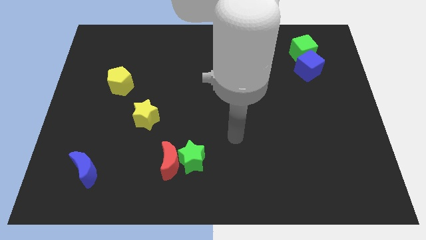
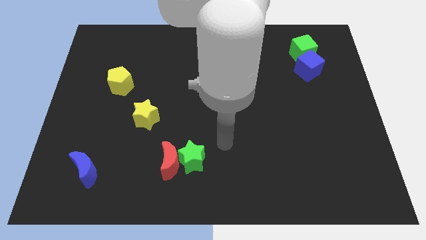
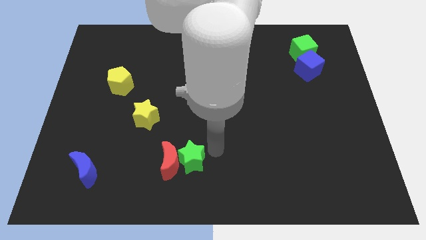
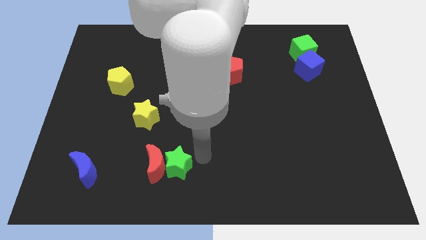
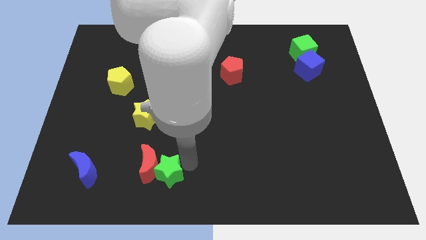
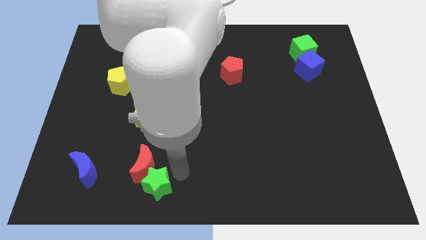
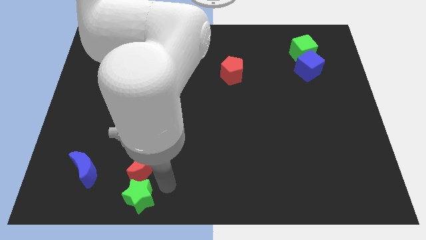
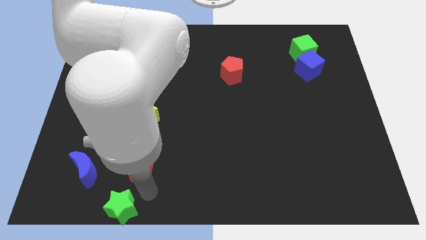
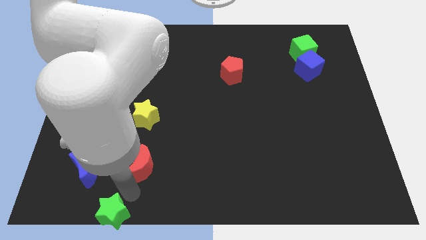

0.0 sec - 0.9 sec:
move the red moon away from the green star

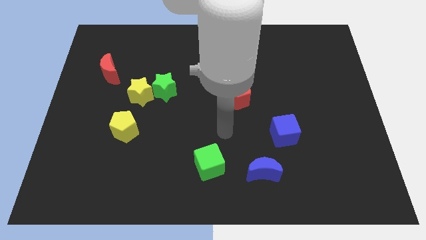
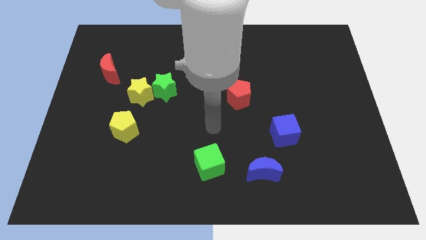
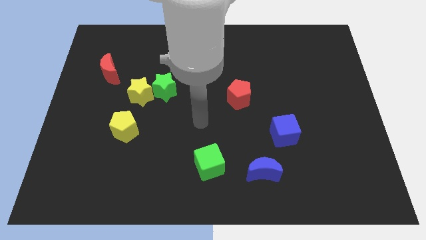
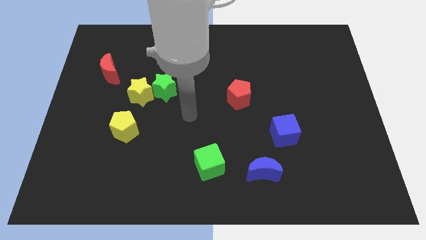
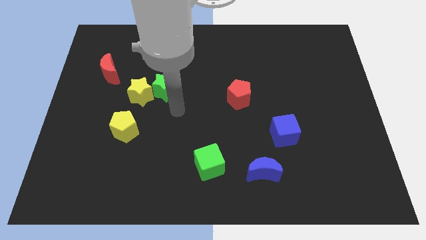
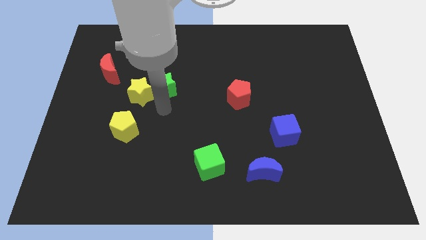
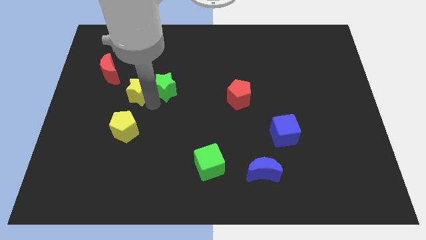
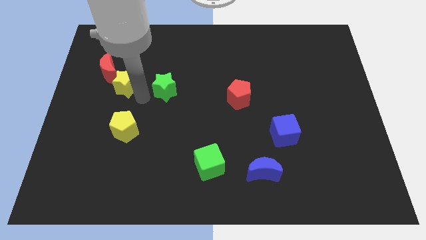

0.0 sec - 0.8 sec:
pull the green star apart from the yellow star

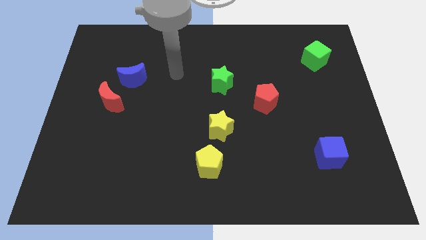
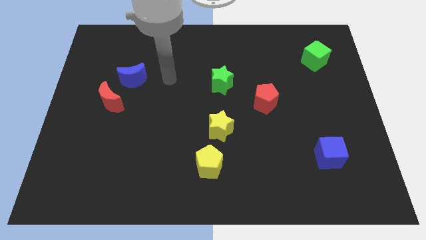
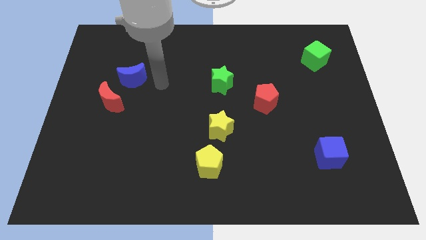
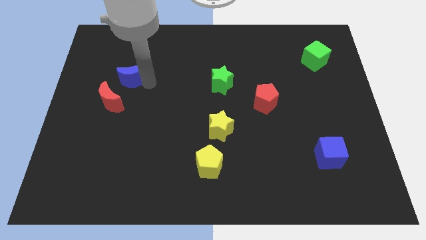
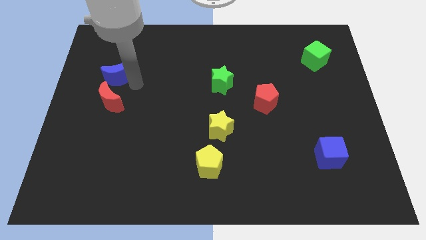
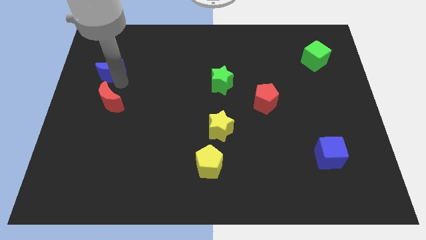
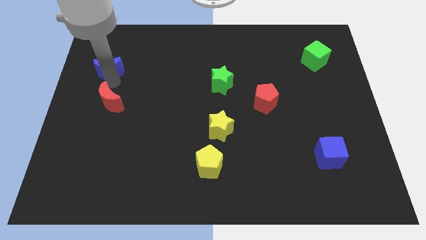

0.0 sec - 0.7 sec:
move the red moon away from the blue moon

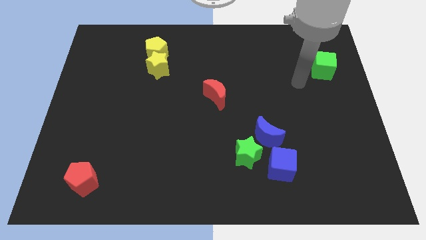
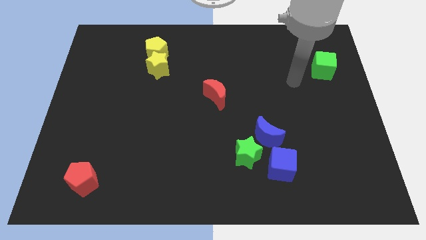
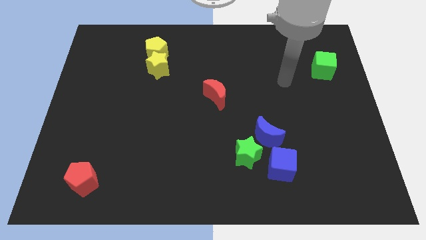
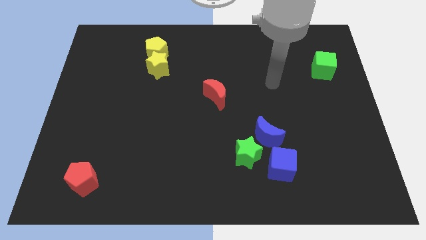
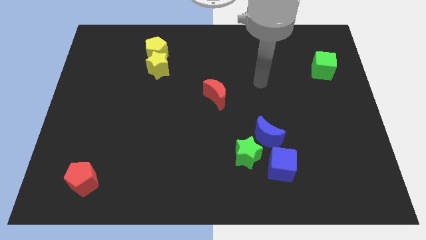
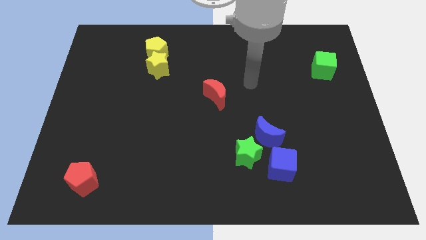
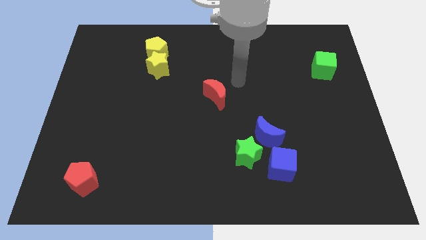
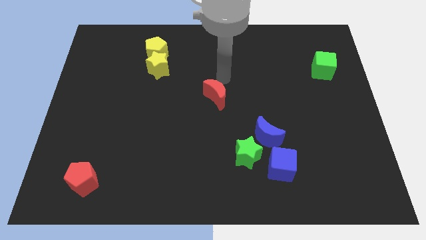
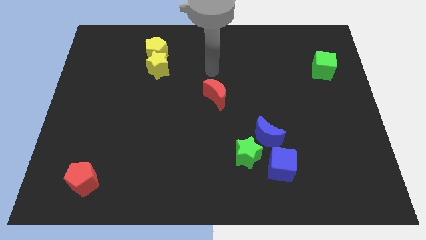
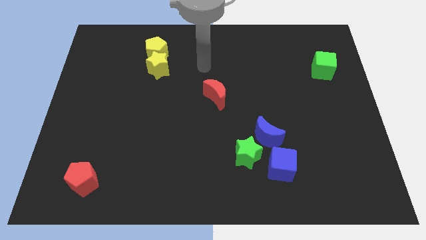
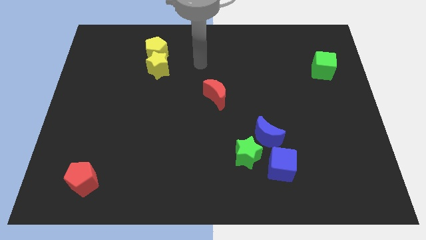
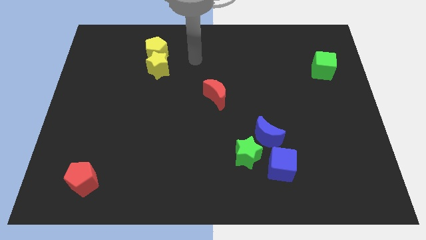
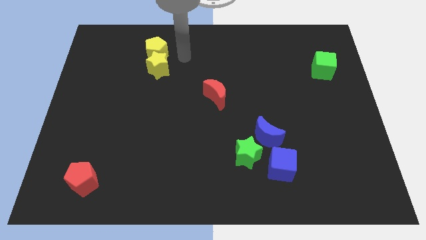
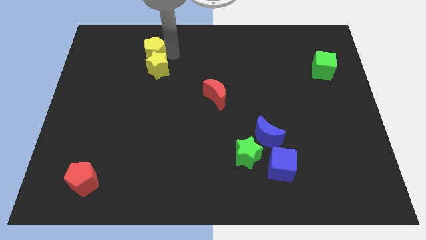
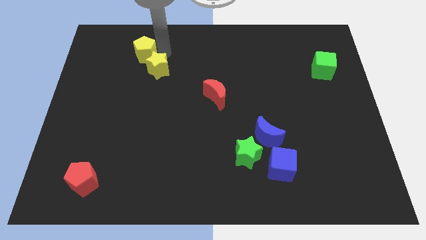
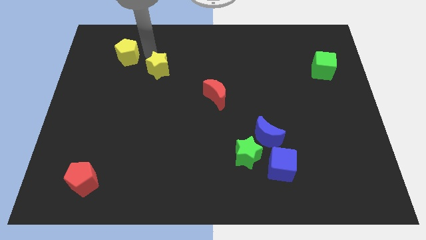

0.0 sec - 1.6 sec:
pull the yellow star apart from the yellow pentagon

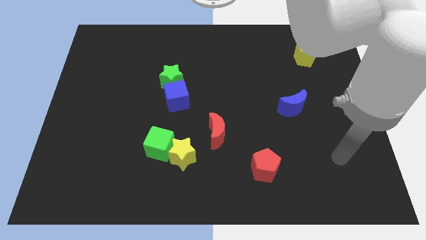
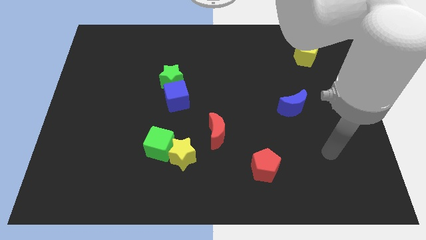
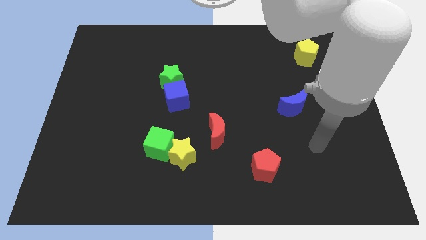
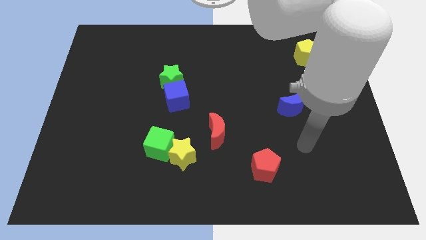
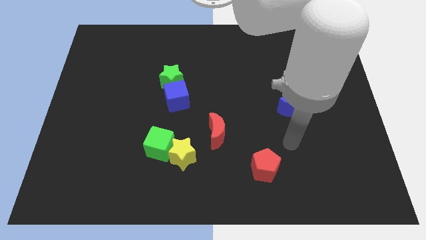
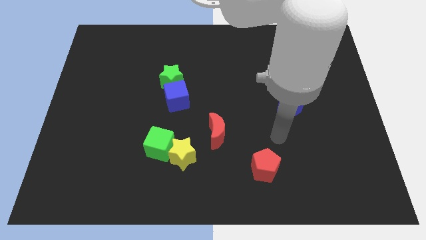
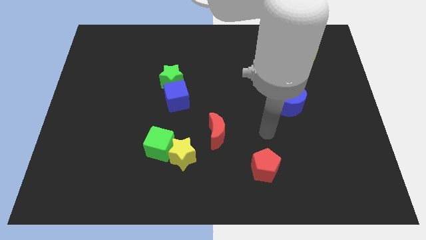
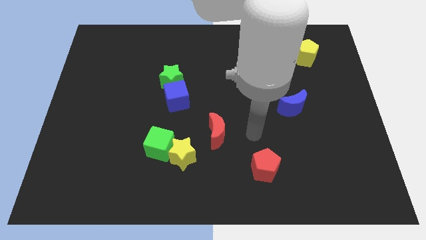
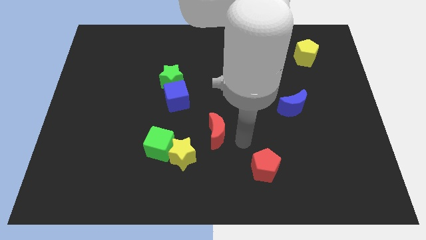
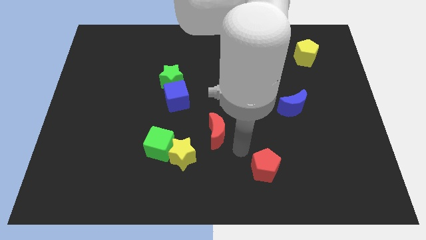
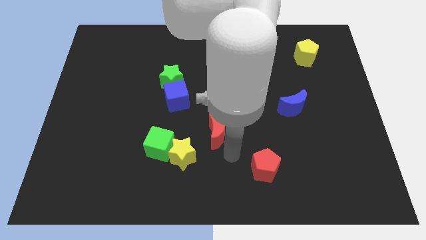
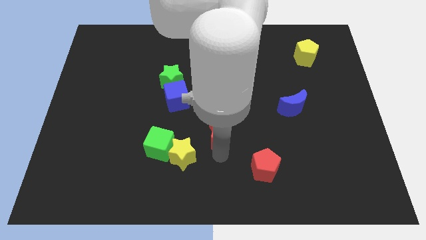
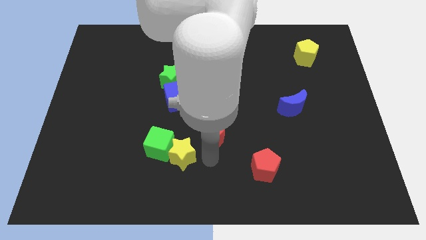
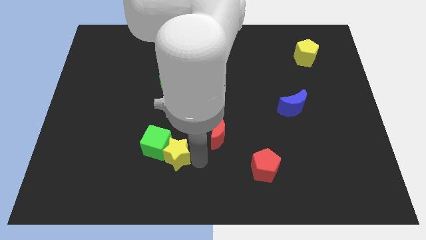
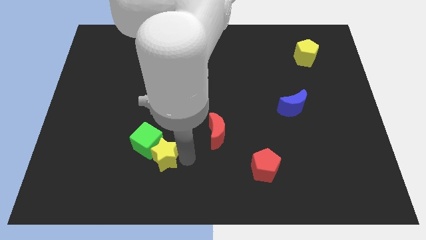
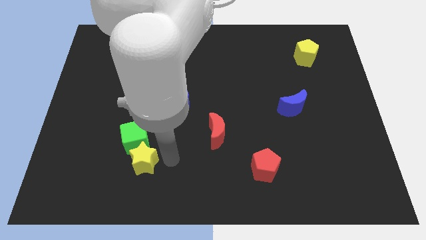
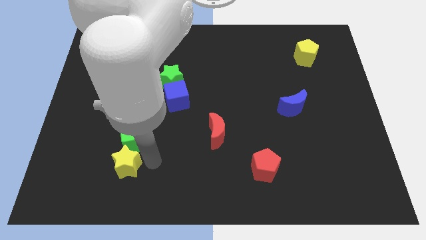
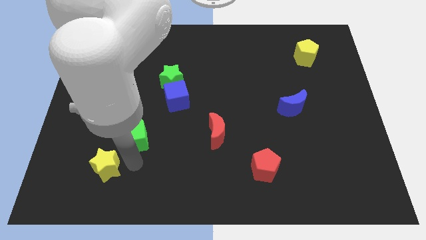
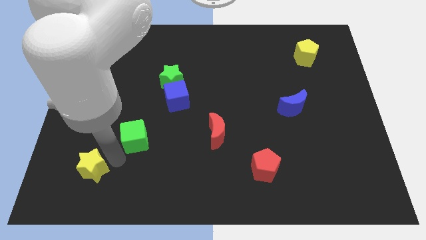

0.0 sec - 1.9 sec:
move the green cube away from the yellow star

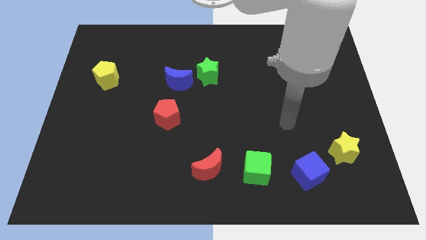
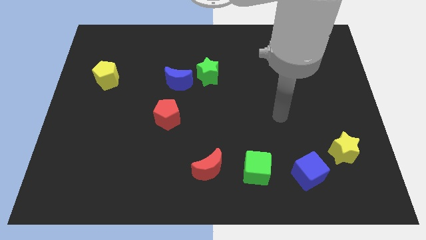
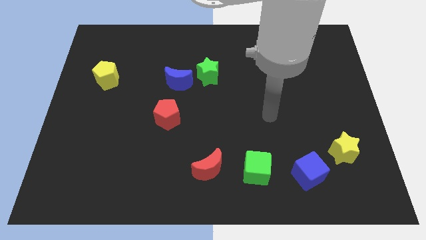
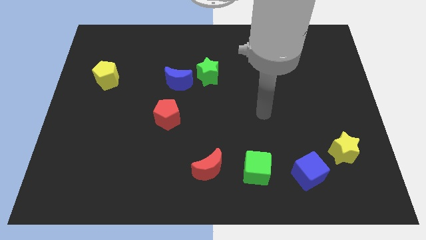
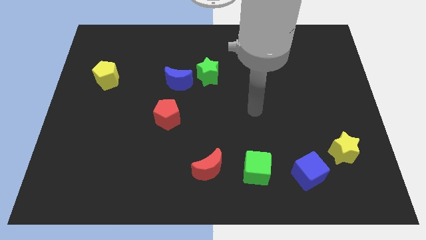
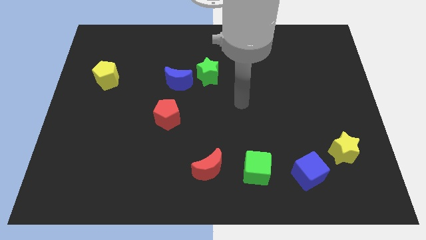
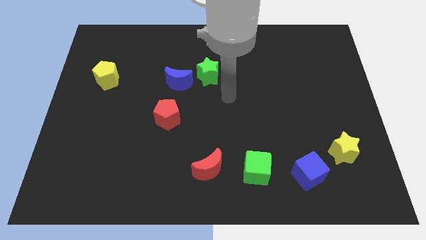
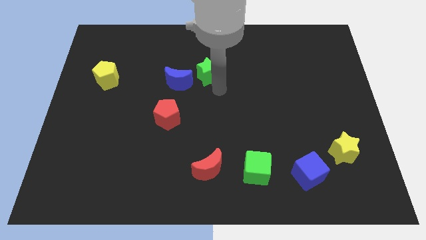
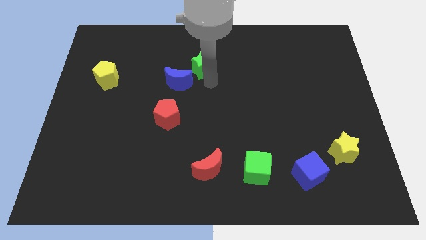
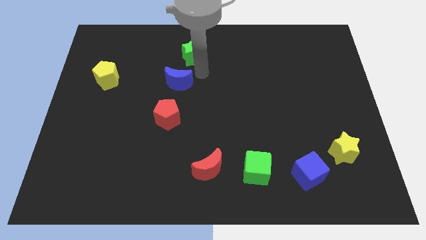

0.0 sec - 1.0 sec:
move the blue moon away from the green star

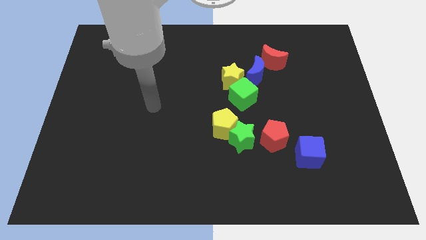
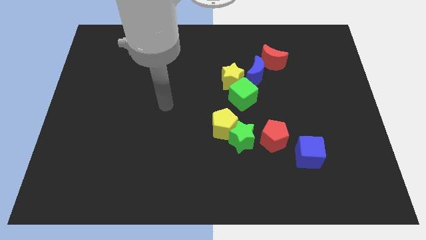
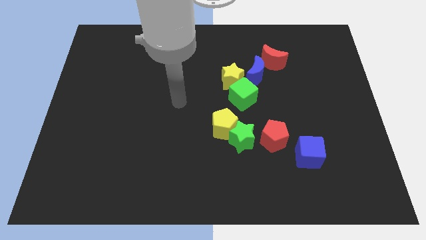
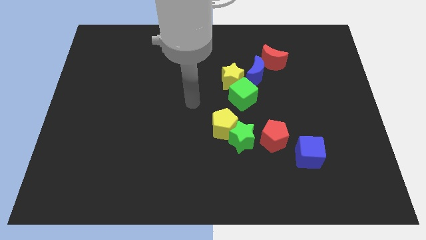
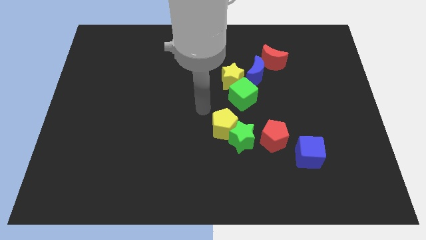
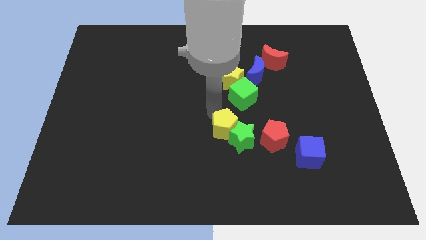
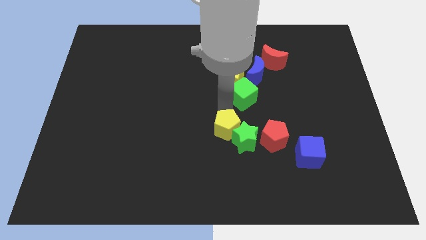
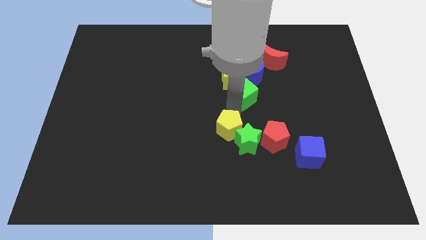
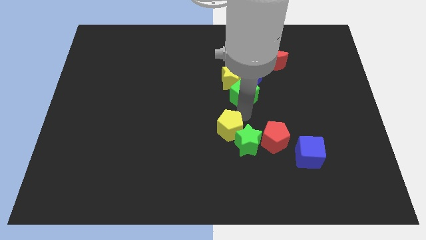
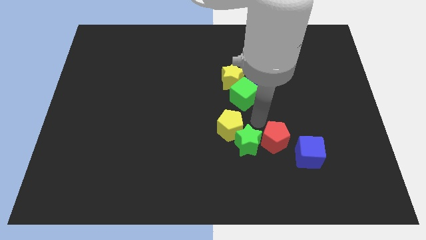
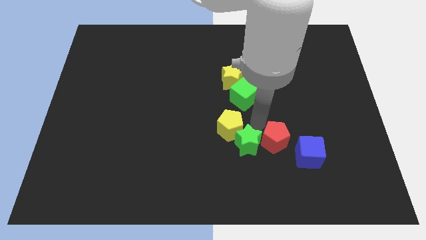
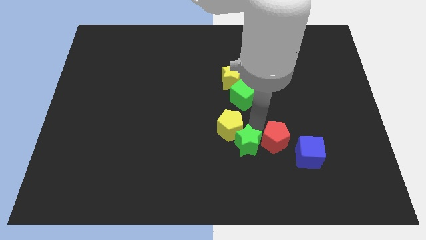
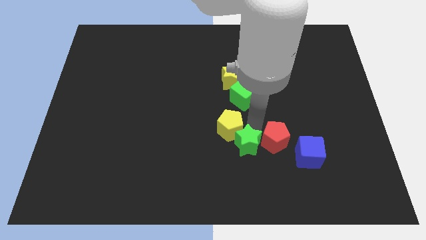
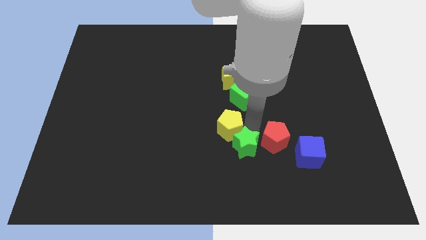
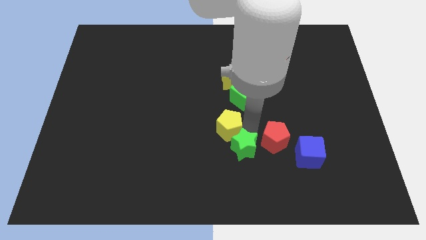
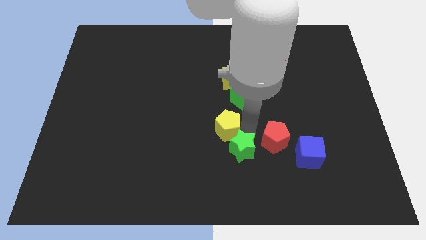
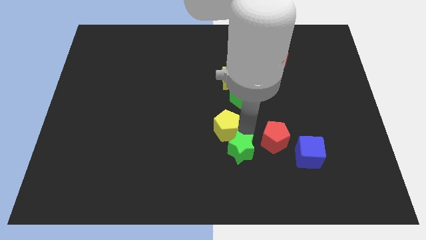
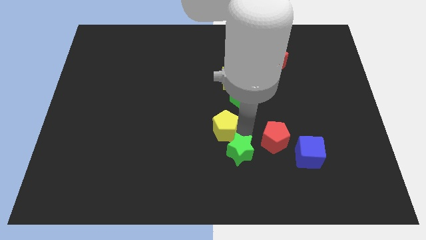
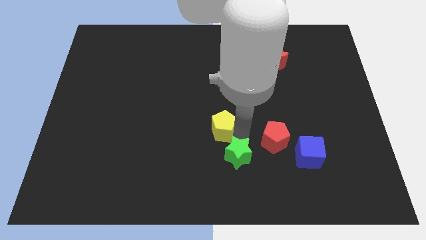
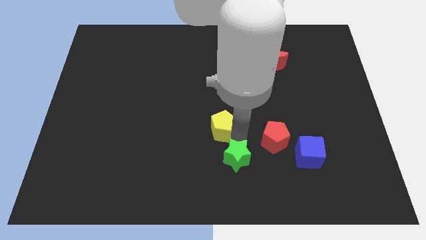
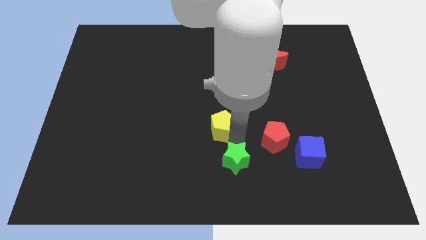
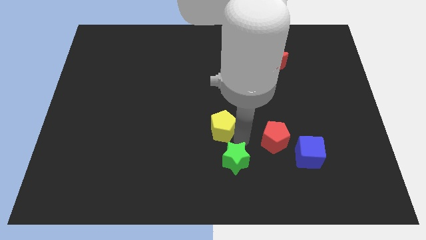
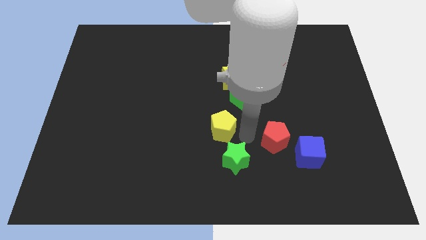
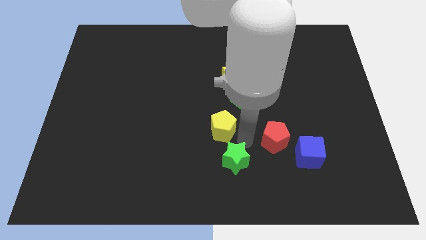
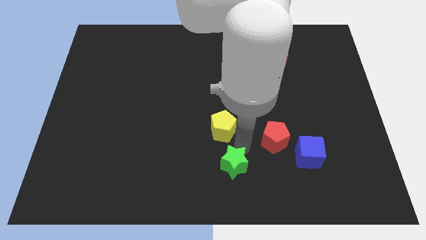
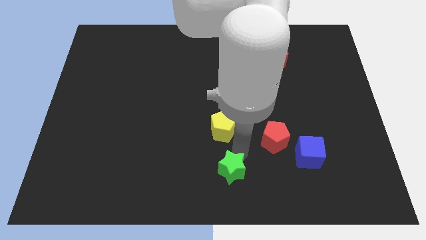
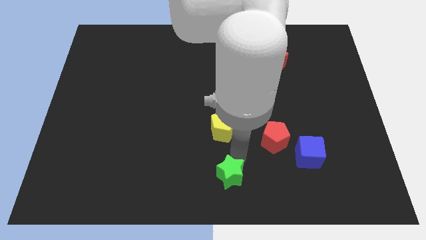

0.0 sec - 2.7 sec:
pull the green star apart from the yellow pentagon and red pentagon
